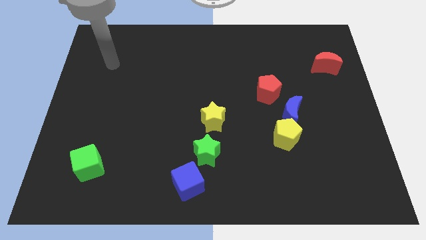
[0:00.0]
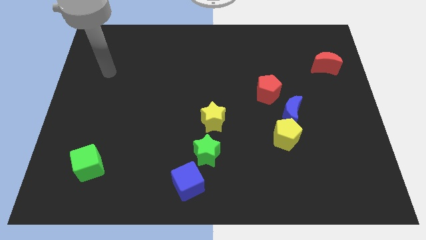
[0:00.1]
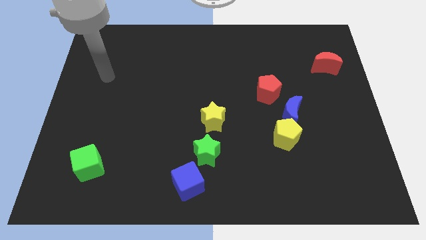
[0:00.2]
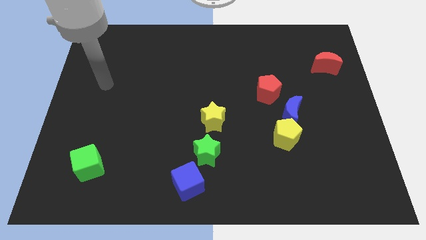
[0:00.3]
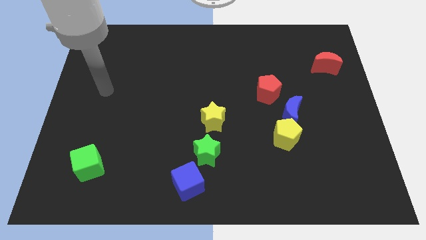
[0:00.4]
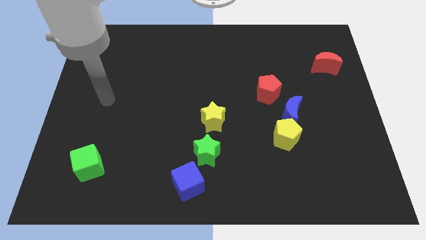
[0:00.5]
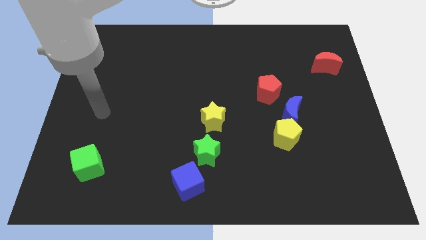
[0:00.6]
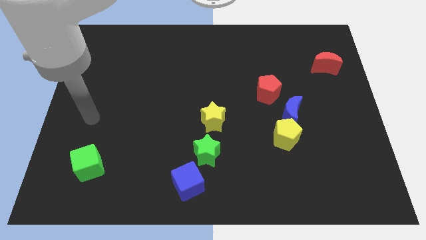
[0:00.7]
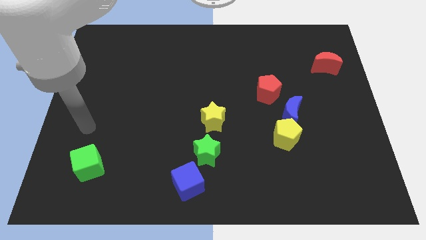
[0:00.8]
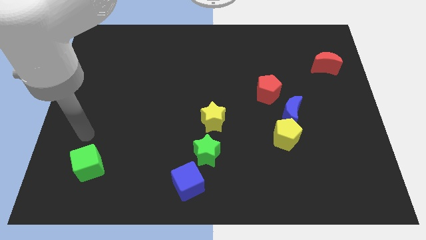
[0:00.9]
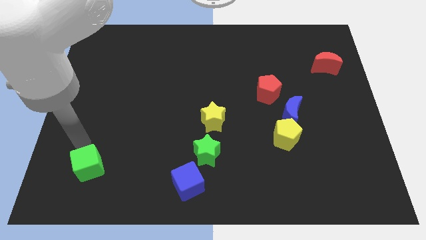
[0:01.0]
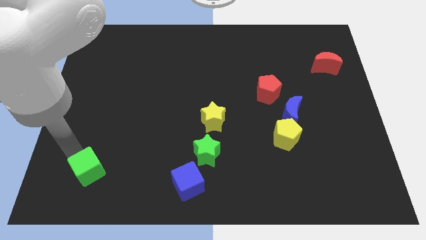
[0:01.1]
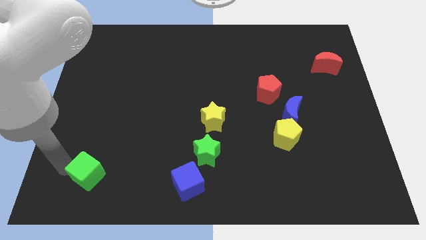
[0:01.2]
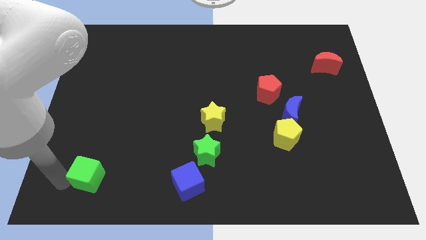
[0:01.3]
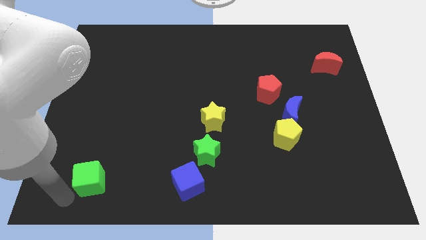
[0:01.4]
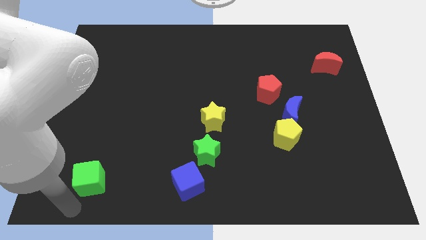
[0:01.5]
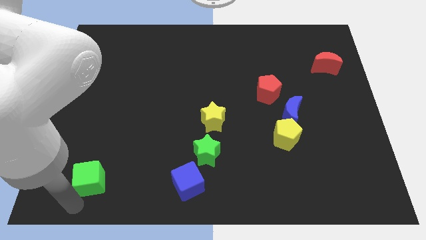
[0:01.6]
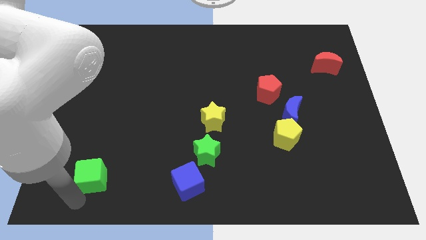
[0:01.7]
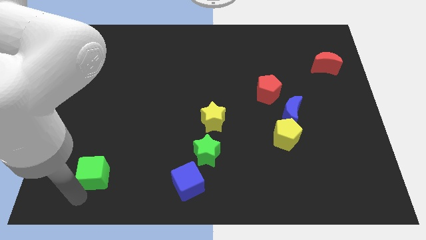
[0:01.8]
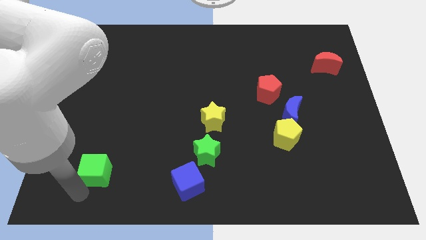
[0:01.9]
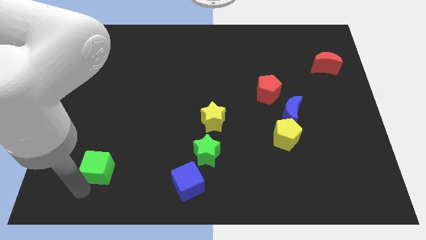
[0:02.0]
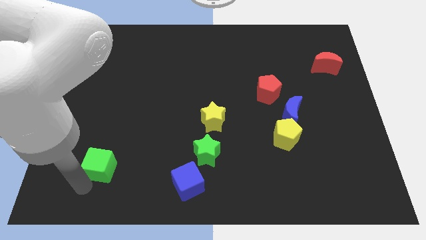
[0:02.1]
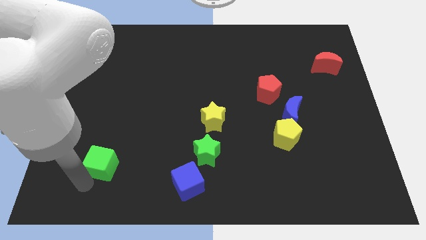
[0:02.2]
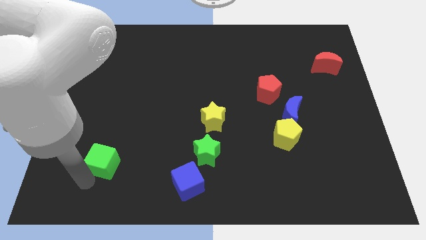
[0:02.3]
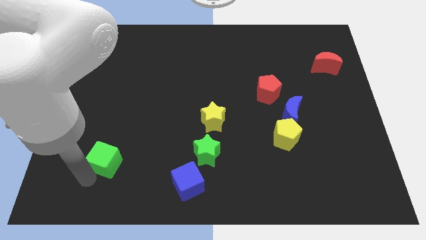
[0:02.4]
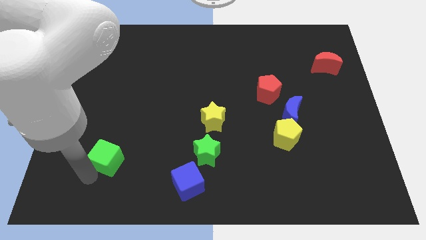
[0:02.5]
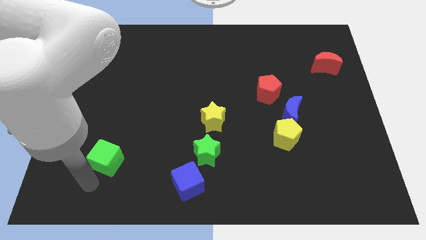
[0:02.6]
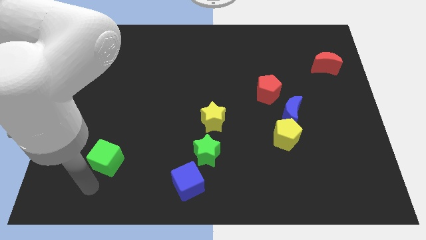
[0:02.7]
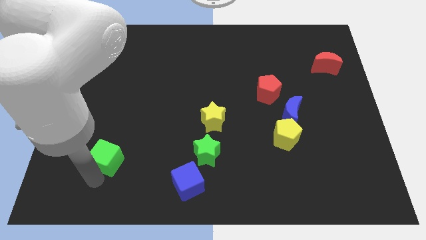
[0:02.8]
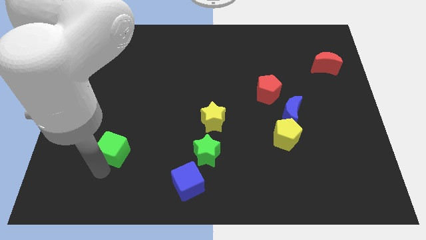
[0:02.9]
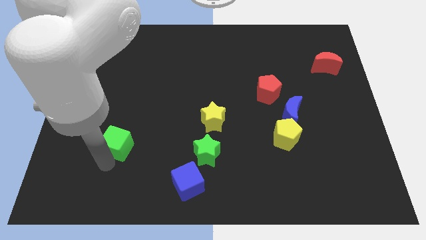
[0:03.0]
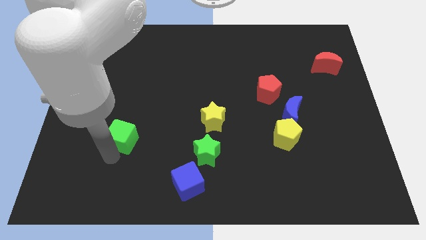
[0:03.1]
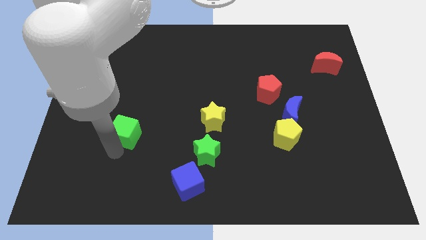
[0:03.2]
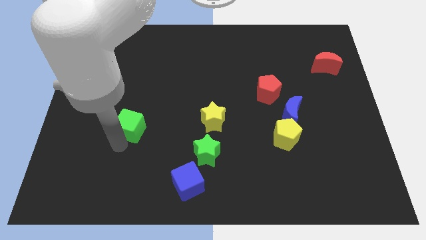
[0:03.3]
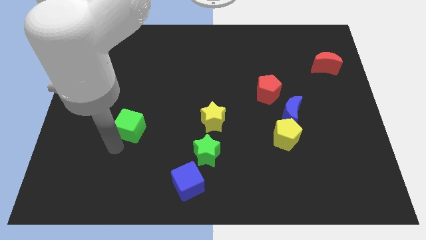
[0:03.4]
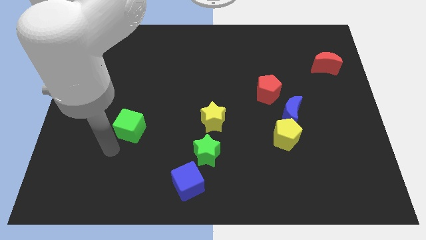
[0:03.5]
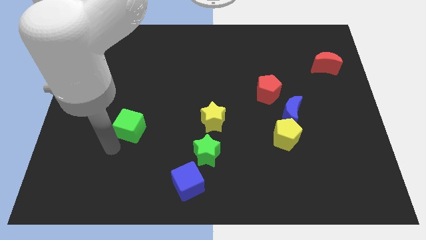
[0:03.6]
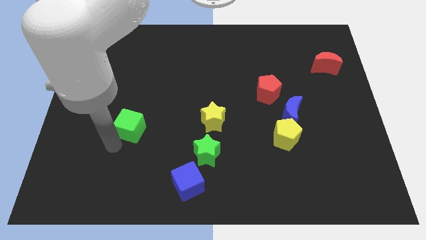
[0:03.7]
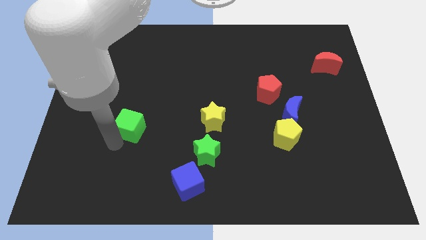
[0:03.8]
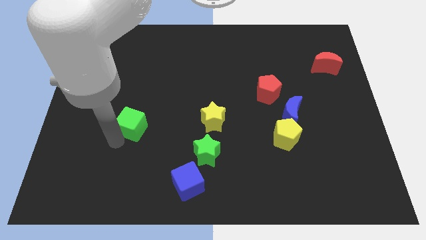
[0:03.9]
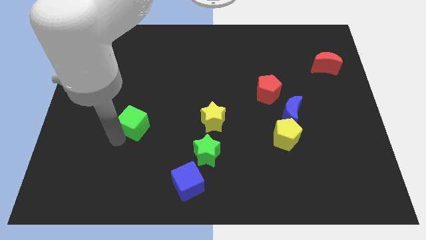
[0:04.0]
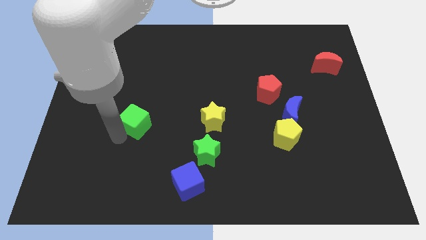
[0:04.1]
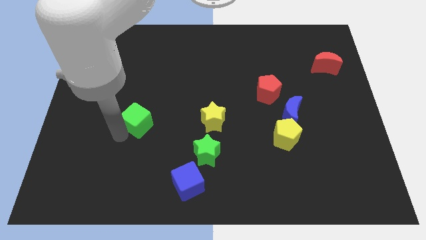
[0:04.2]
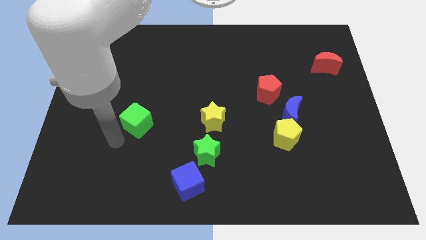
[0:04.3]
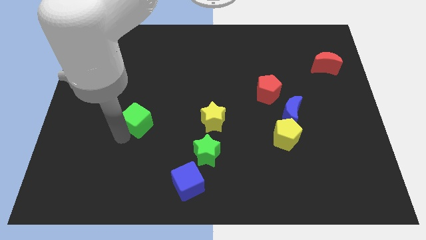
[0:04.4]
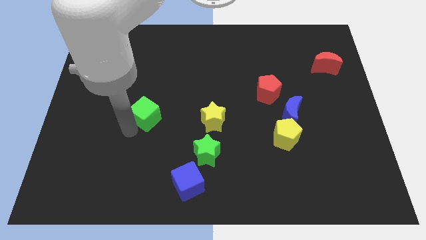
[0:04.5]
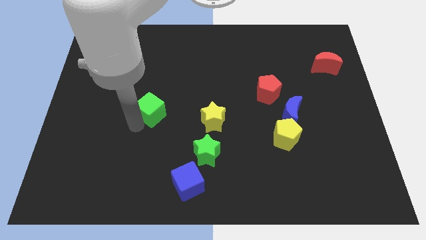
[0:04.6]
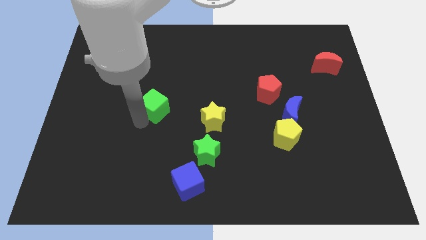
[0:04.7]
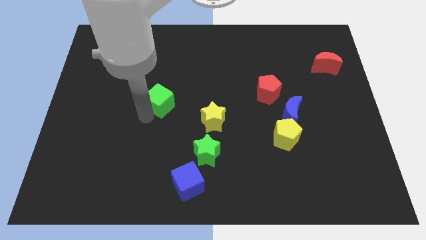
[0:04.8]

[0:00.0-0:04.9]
move the green cube diagonally upwards and right

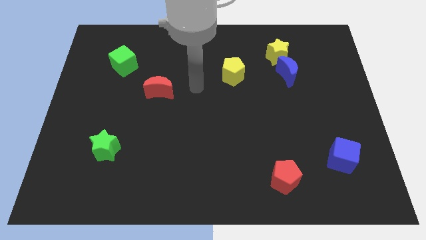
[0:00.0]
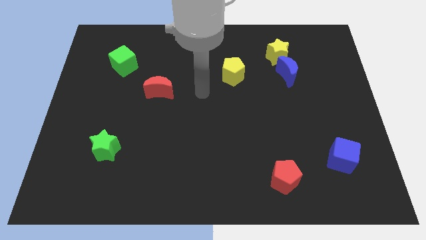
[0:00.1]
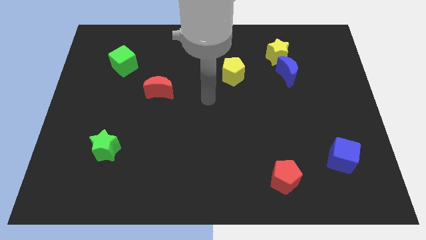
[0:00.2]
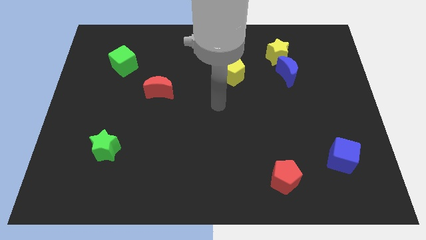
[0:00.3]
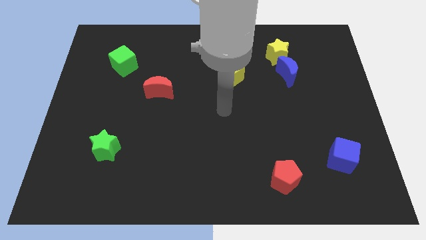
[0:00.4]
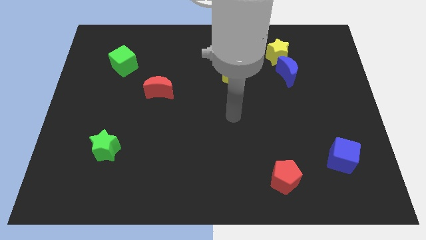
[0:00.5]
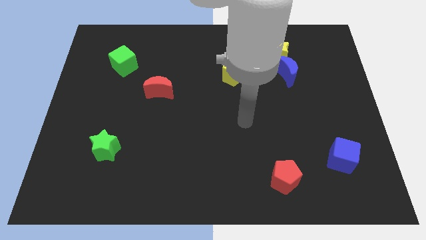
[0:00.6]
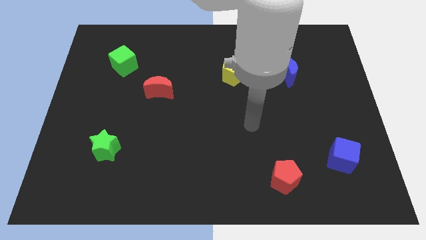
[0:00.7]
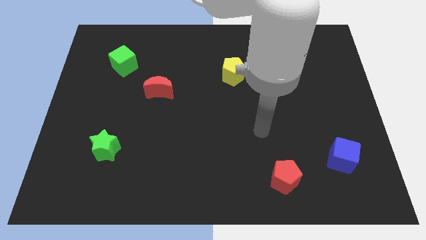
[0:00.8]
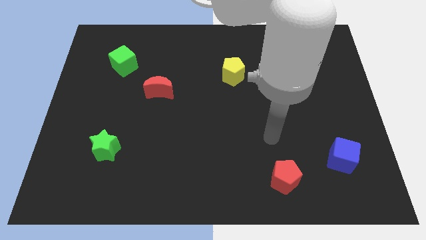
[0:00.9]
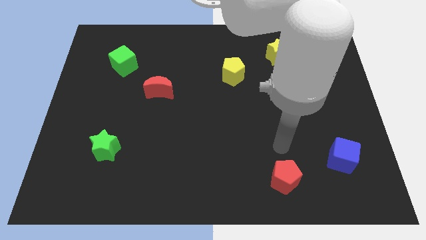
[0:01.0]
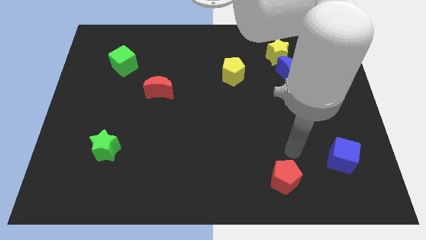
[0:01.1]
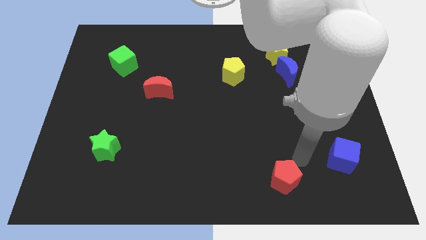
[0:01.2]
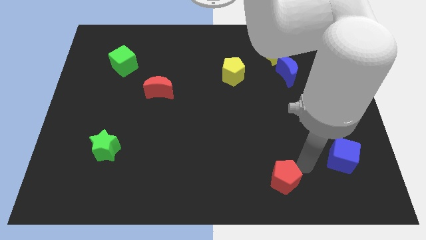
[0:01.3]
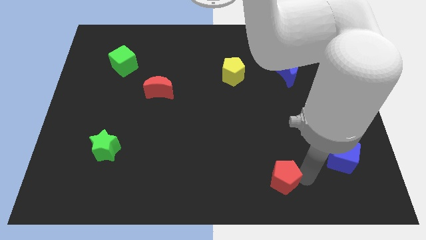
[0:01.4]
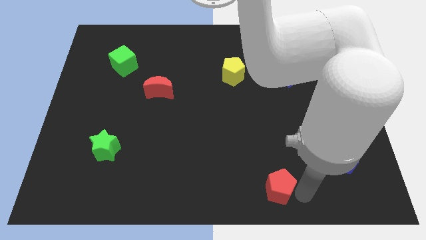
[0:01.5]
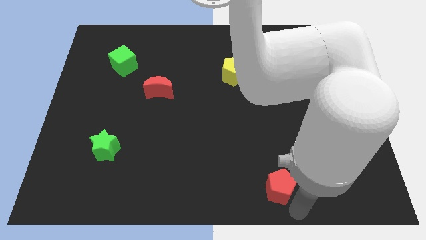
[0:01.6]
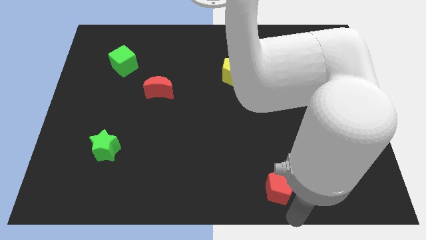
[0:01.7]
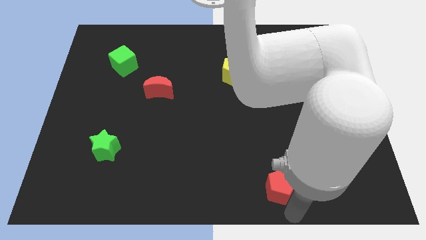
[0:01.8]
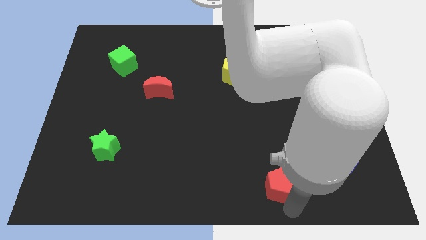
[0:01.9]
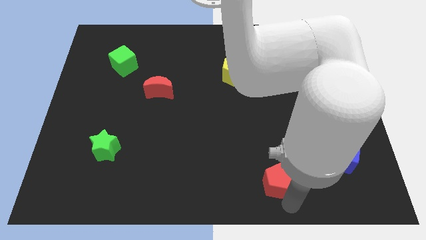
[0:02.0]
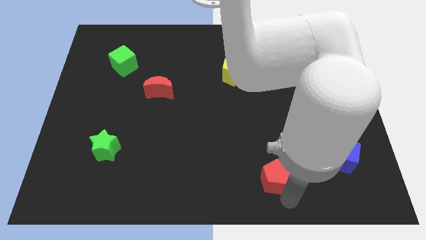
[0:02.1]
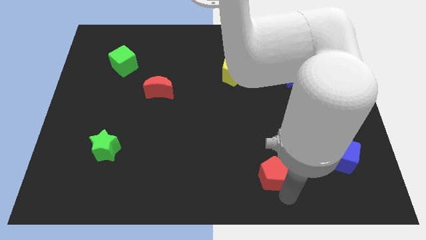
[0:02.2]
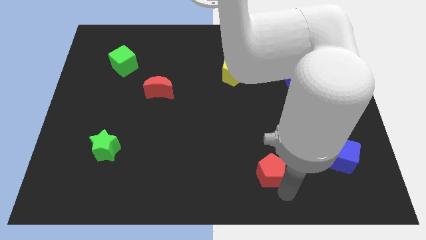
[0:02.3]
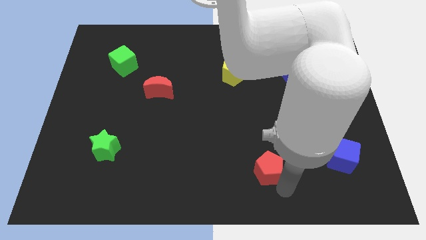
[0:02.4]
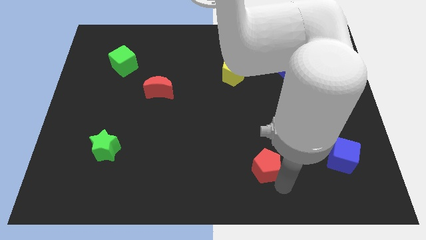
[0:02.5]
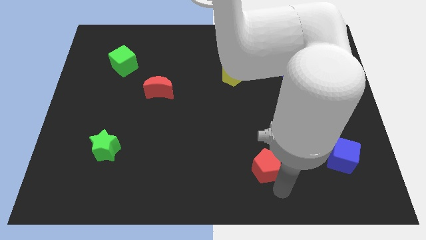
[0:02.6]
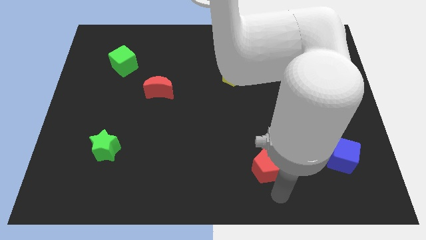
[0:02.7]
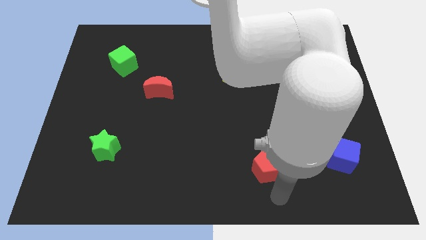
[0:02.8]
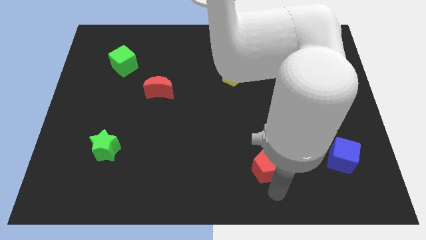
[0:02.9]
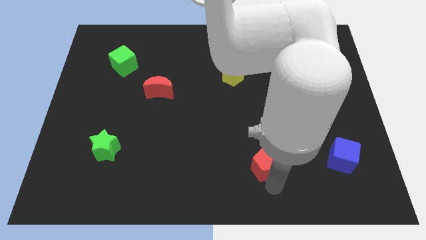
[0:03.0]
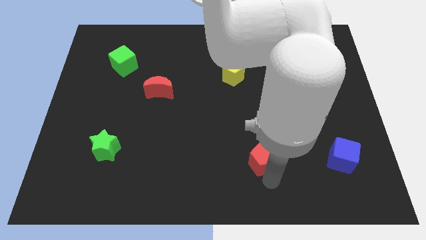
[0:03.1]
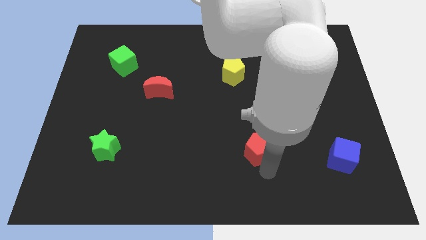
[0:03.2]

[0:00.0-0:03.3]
slightly move the red pentagon upwards and then to the left
